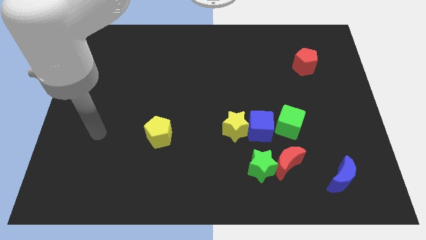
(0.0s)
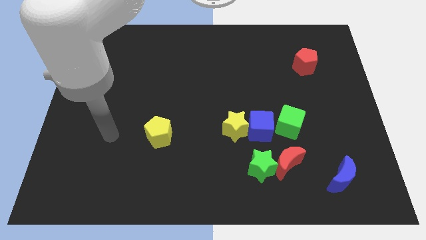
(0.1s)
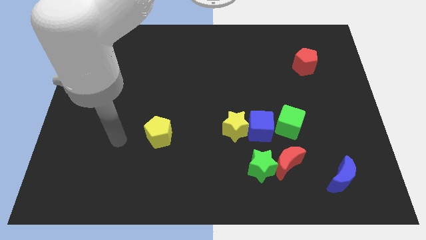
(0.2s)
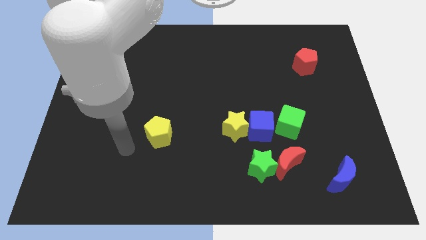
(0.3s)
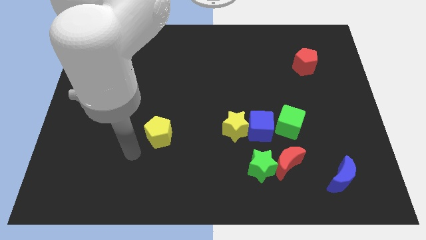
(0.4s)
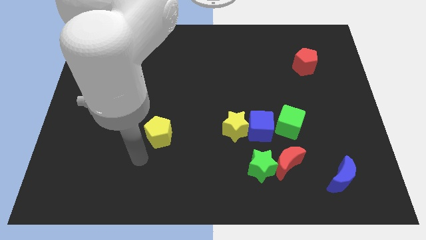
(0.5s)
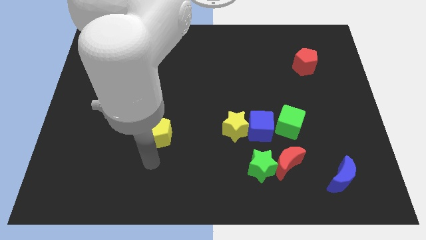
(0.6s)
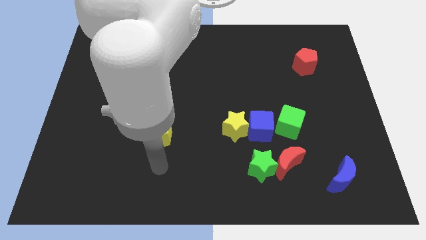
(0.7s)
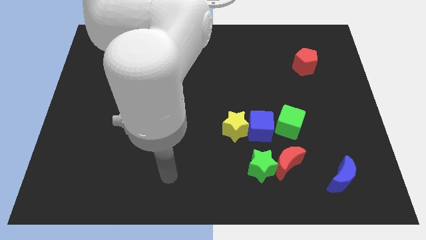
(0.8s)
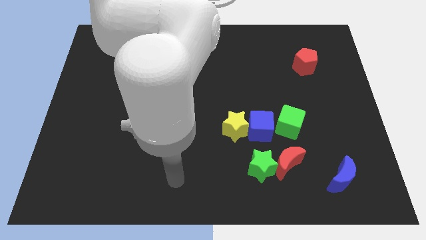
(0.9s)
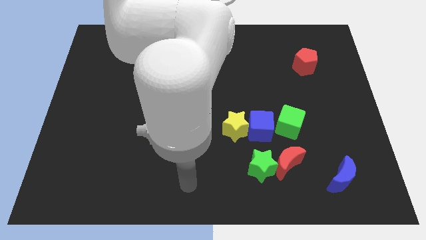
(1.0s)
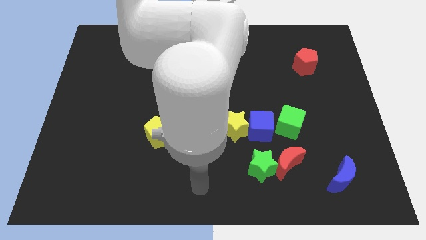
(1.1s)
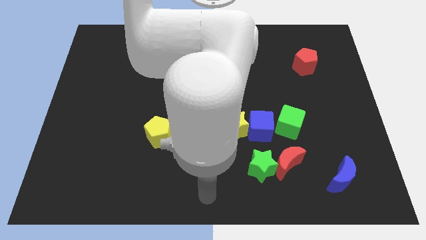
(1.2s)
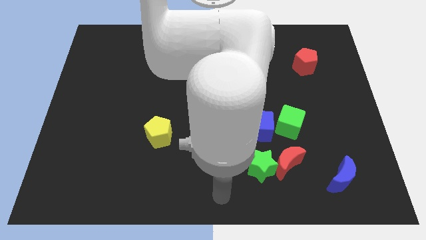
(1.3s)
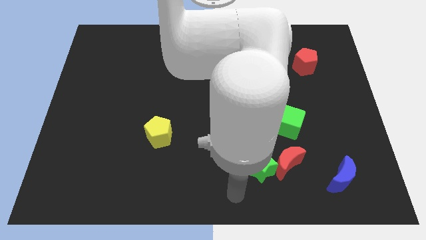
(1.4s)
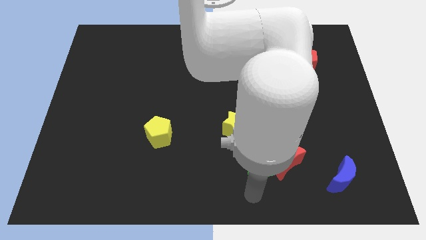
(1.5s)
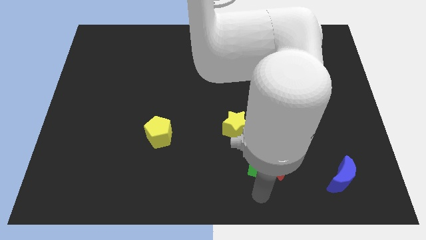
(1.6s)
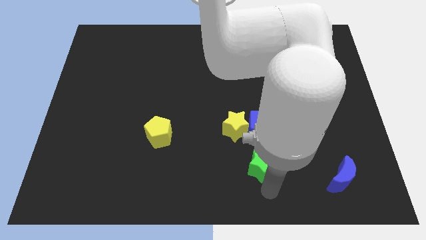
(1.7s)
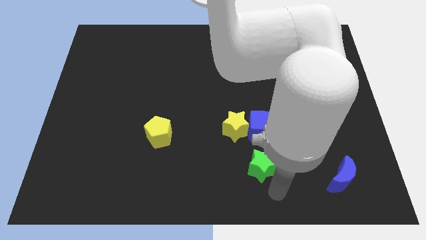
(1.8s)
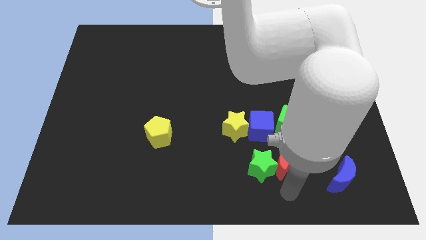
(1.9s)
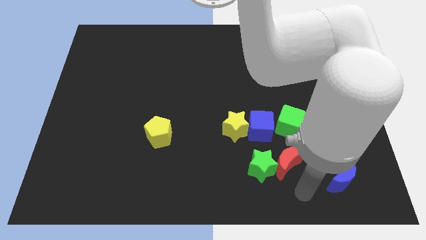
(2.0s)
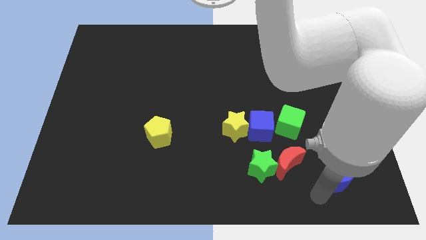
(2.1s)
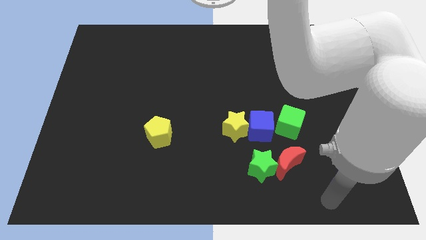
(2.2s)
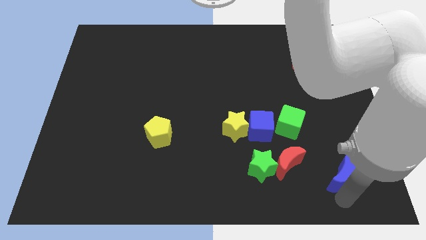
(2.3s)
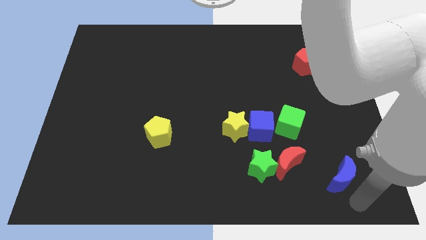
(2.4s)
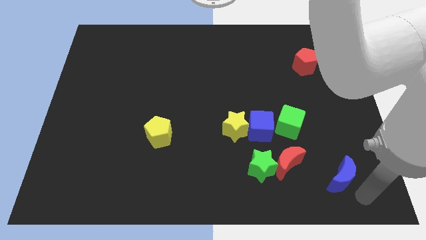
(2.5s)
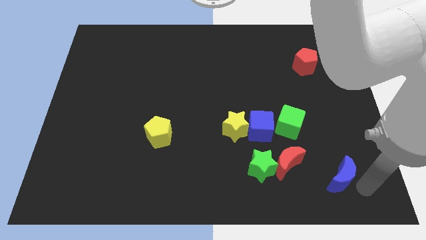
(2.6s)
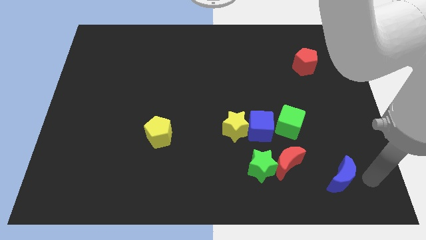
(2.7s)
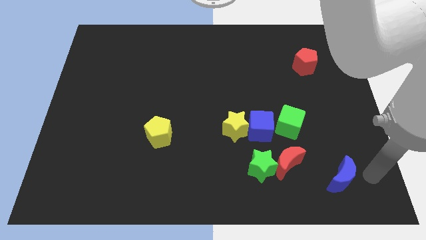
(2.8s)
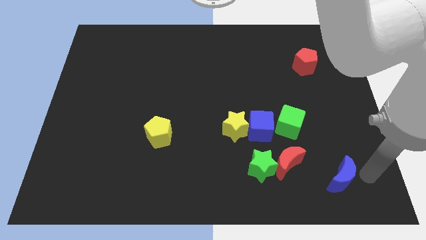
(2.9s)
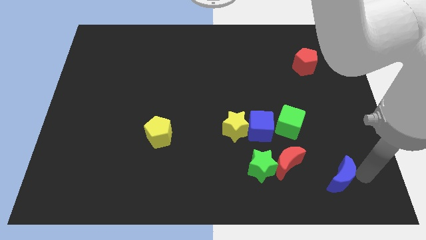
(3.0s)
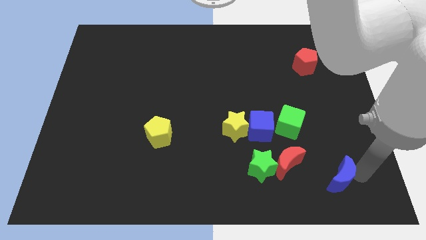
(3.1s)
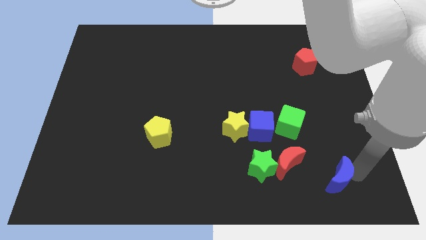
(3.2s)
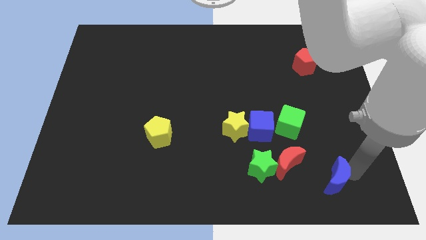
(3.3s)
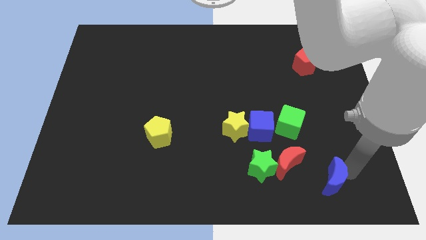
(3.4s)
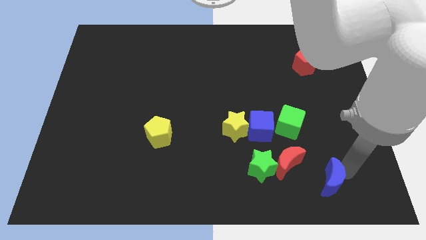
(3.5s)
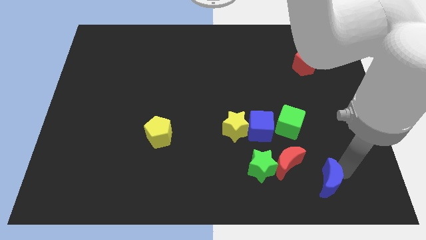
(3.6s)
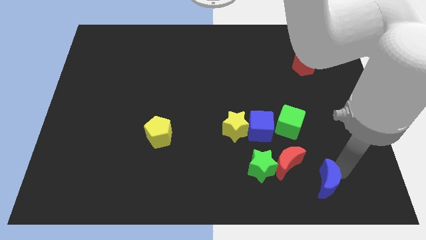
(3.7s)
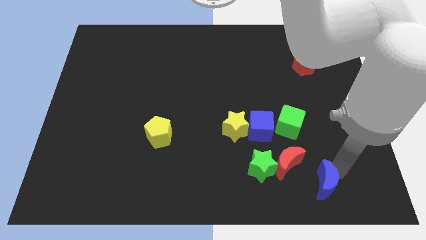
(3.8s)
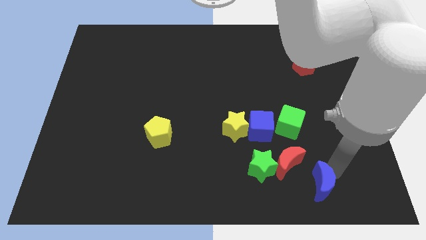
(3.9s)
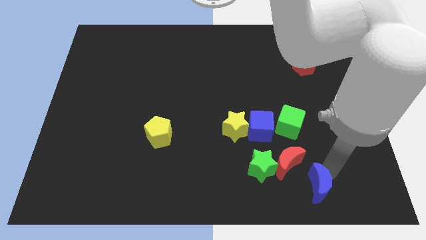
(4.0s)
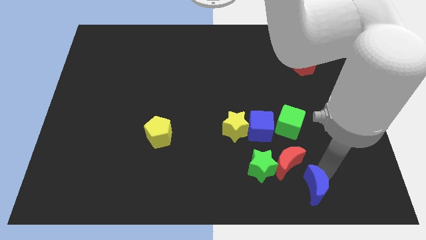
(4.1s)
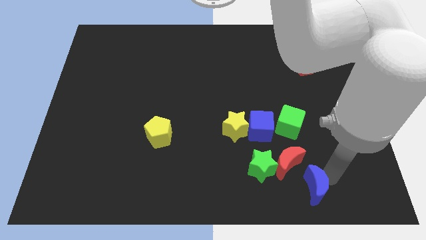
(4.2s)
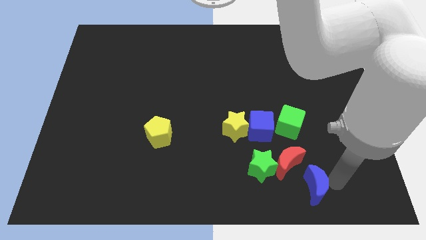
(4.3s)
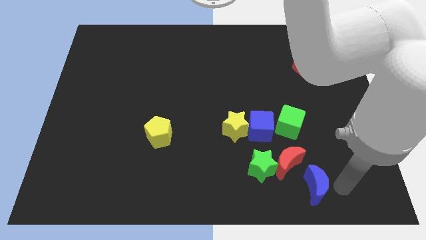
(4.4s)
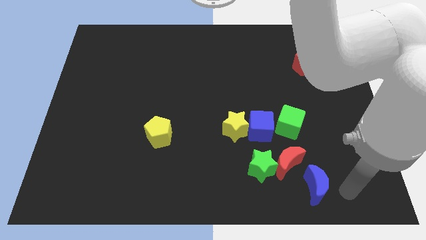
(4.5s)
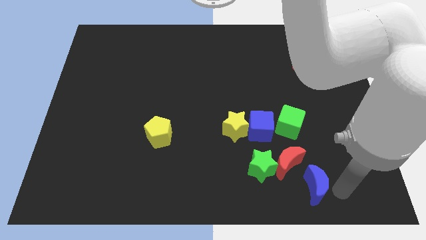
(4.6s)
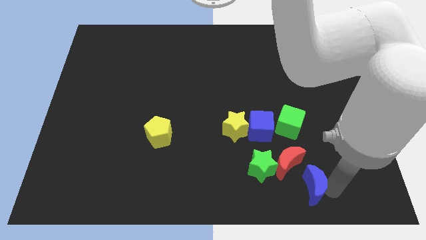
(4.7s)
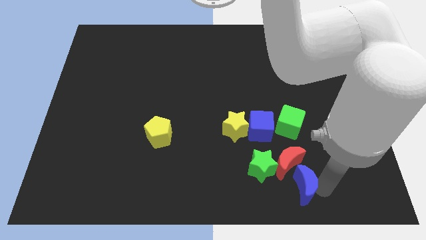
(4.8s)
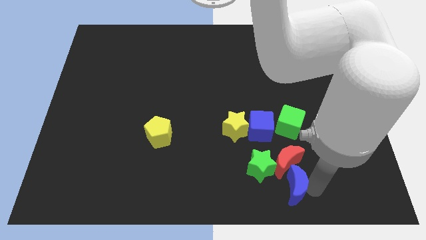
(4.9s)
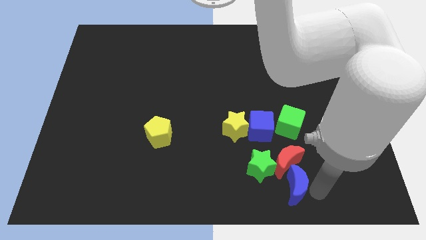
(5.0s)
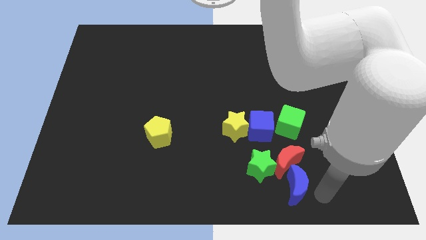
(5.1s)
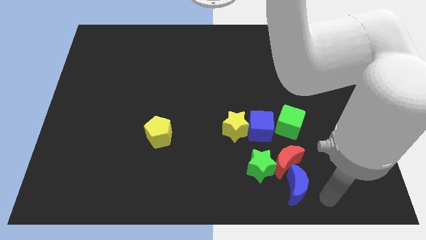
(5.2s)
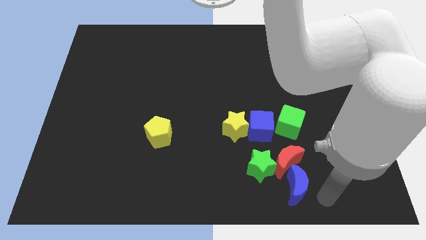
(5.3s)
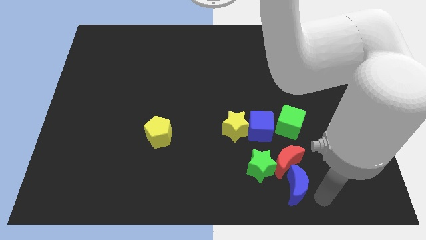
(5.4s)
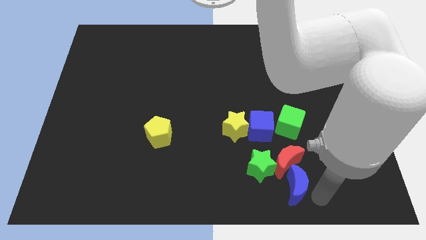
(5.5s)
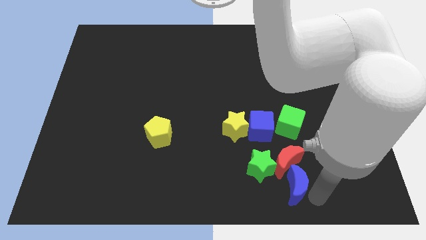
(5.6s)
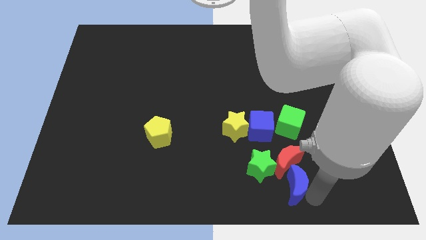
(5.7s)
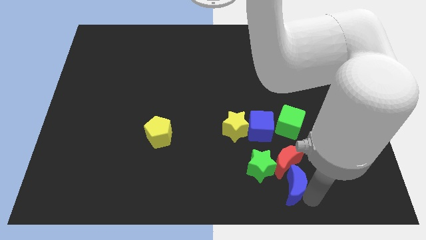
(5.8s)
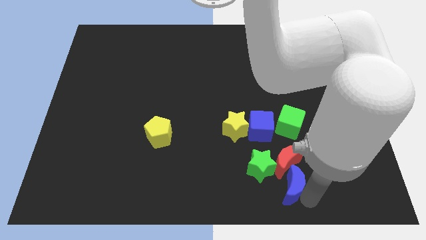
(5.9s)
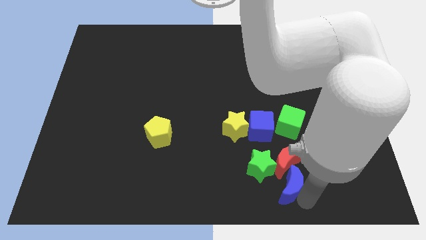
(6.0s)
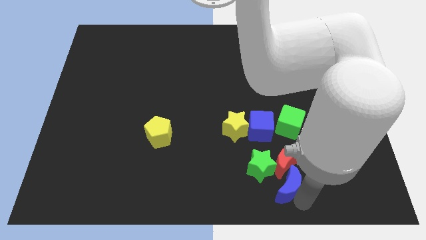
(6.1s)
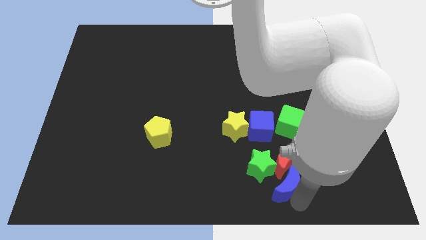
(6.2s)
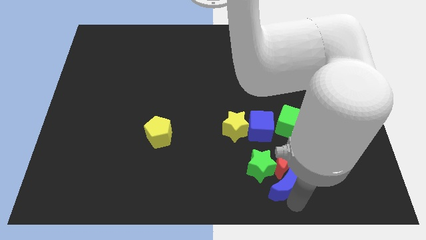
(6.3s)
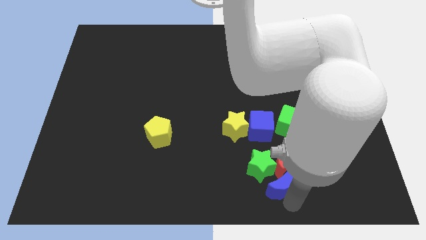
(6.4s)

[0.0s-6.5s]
slide the blue moon to the green star

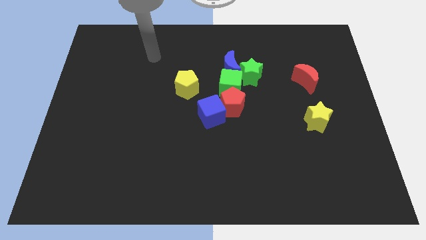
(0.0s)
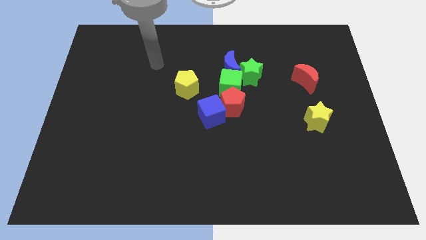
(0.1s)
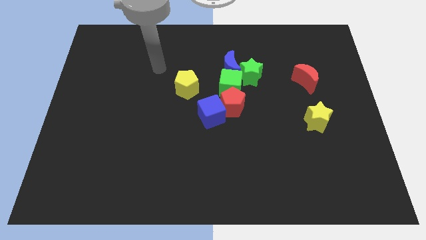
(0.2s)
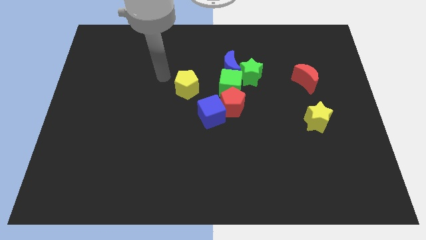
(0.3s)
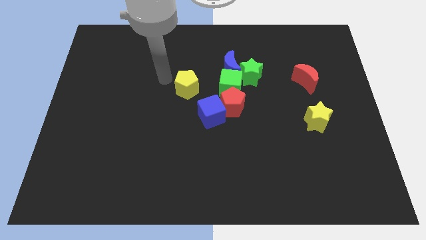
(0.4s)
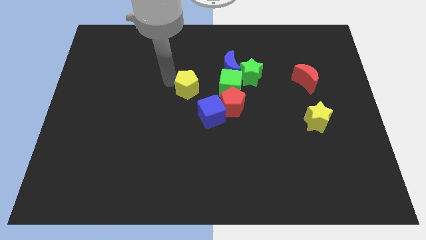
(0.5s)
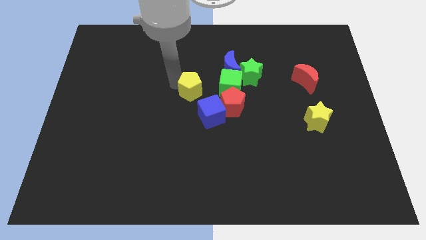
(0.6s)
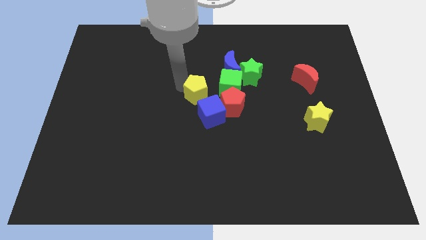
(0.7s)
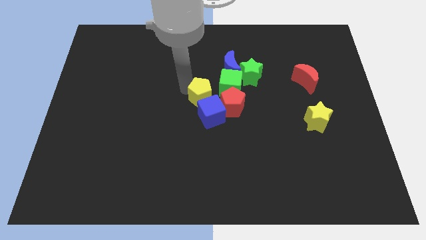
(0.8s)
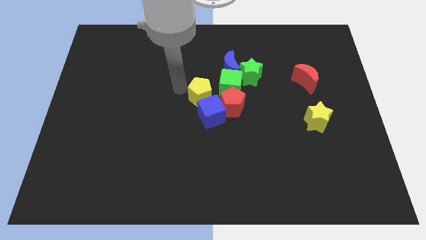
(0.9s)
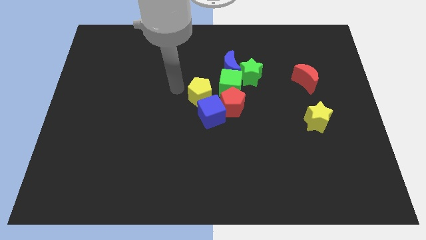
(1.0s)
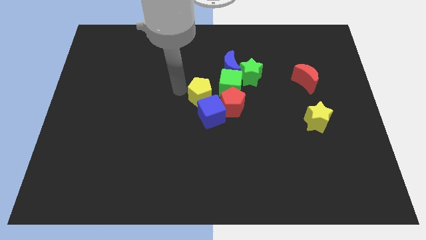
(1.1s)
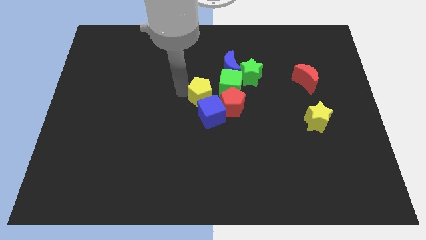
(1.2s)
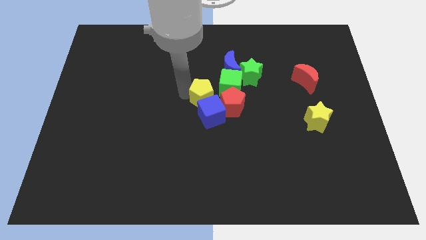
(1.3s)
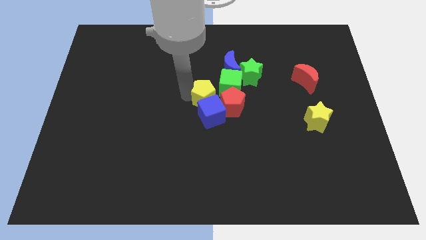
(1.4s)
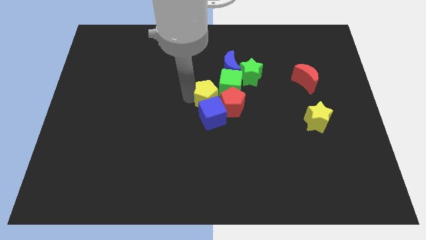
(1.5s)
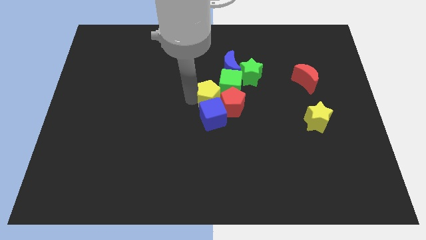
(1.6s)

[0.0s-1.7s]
slide the yellow pentagon towards the red pentagon
